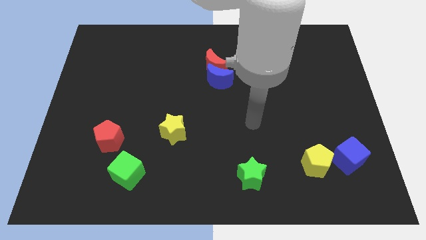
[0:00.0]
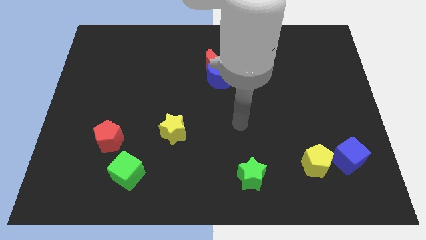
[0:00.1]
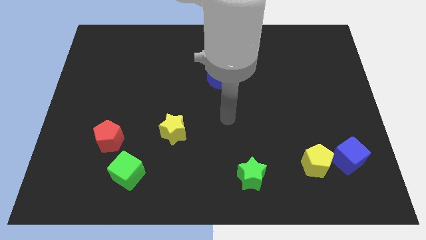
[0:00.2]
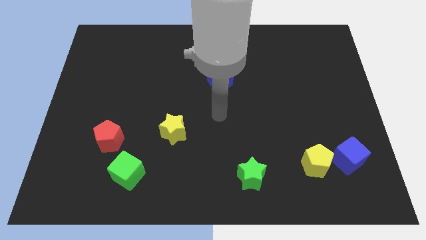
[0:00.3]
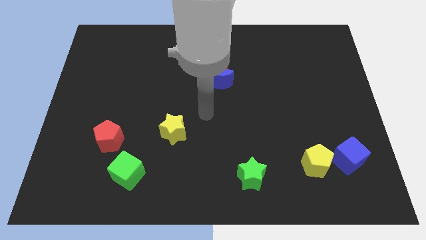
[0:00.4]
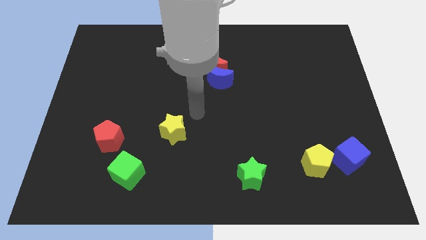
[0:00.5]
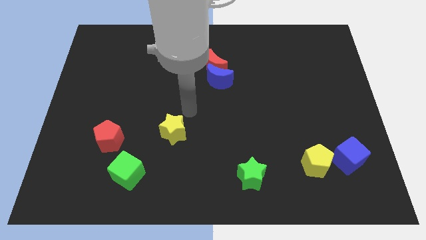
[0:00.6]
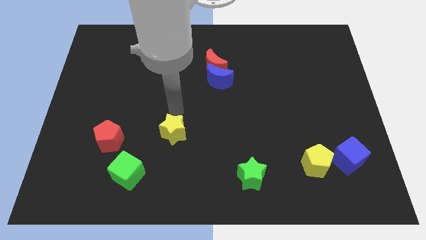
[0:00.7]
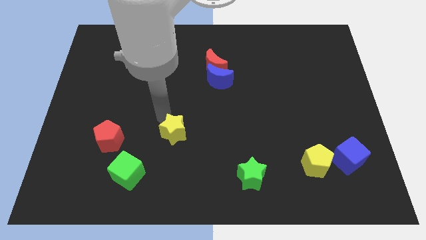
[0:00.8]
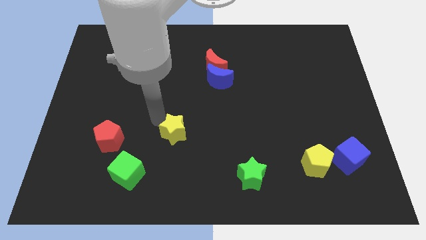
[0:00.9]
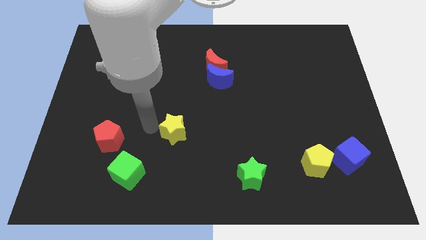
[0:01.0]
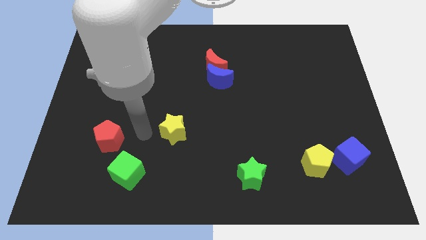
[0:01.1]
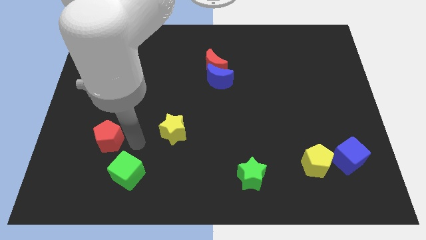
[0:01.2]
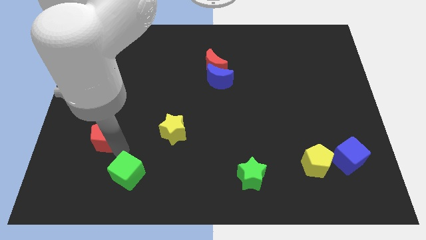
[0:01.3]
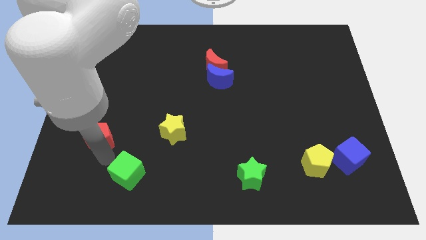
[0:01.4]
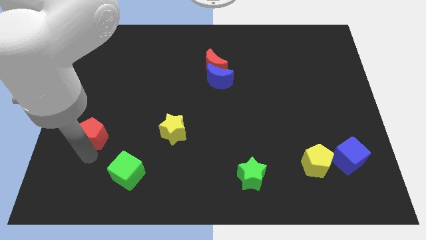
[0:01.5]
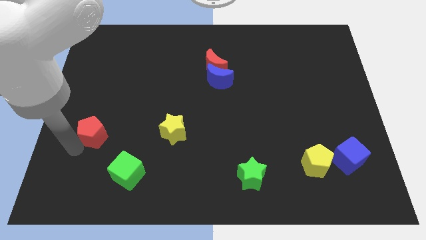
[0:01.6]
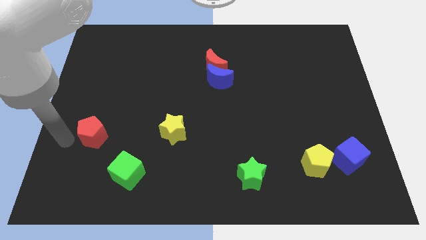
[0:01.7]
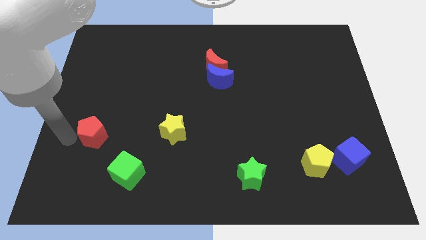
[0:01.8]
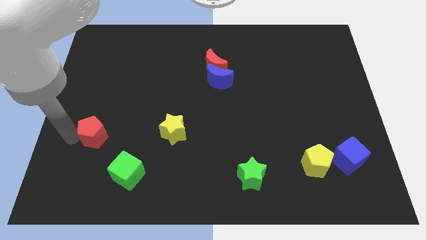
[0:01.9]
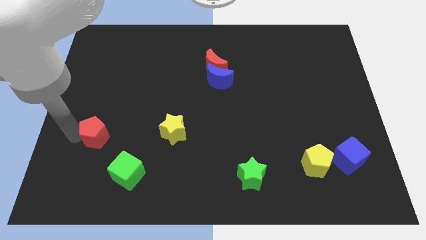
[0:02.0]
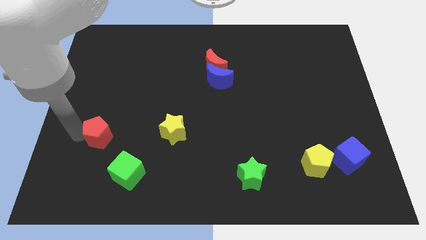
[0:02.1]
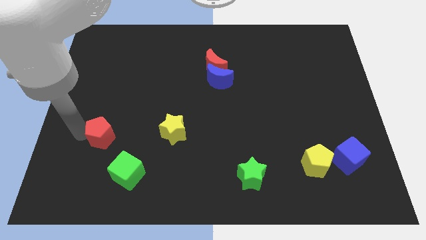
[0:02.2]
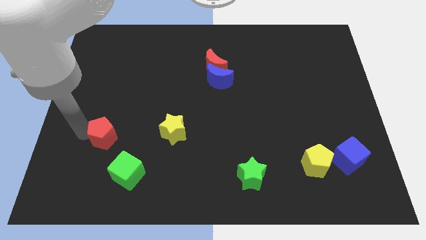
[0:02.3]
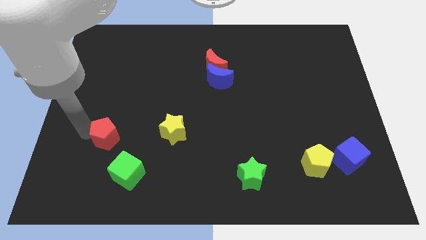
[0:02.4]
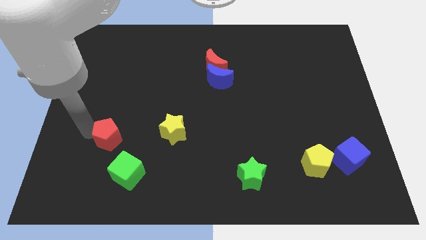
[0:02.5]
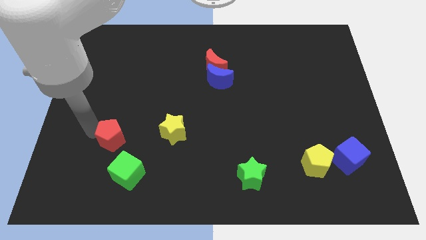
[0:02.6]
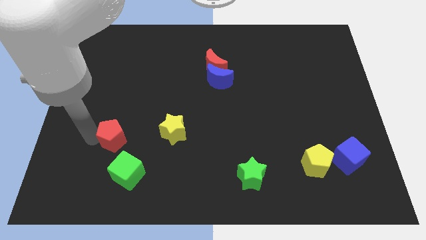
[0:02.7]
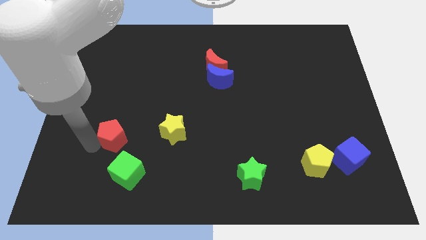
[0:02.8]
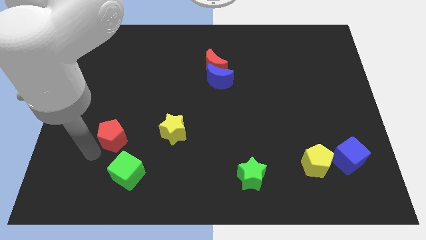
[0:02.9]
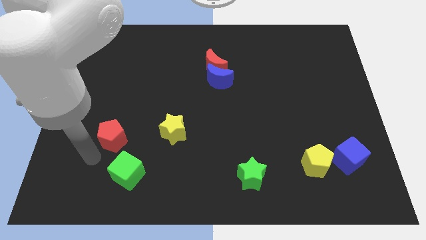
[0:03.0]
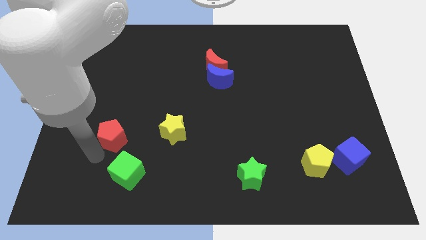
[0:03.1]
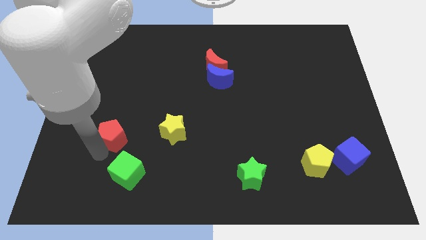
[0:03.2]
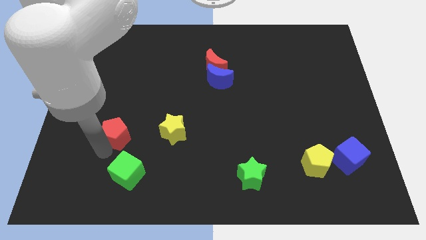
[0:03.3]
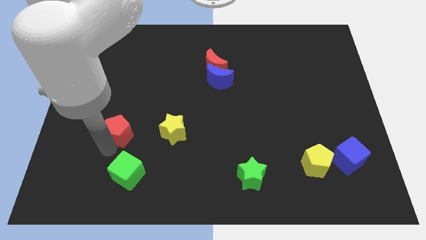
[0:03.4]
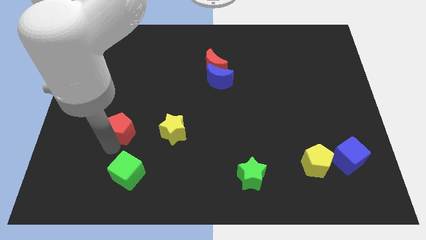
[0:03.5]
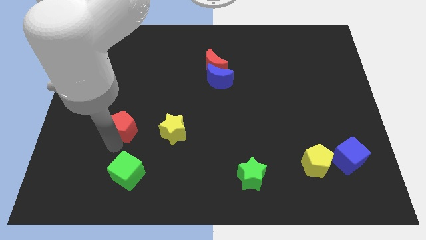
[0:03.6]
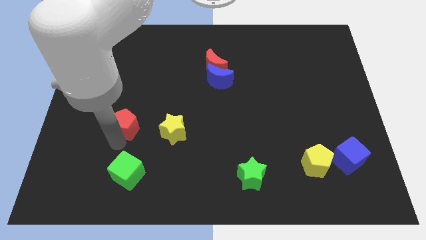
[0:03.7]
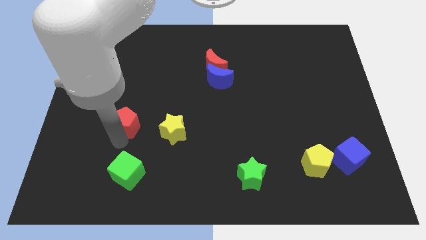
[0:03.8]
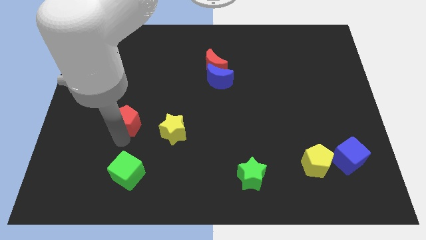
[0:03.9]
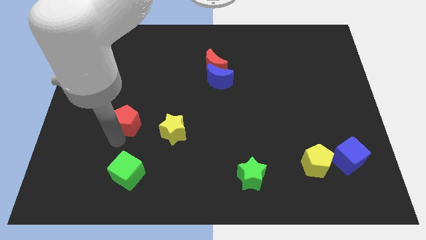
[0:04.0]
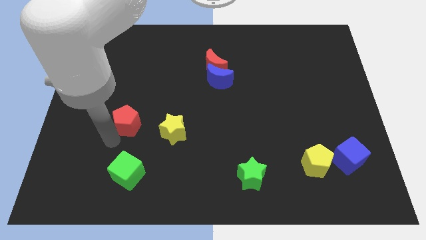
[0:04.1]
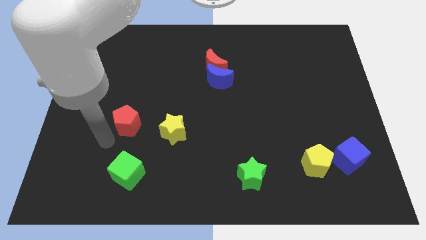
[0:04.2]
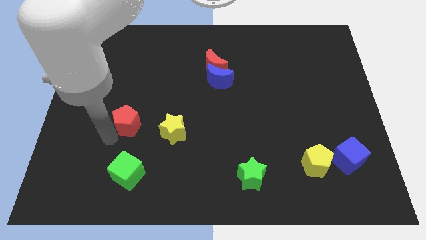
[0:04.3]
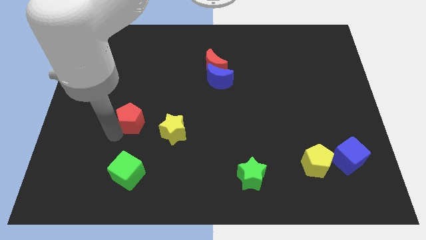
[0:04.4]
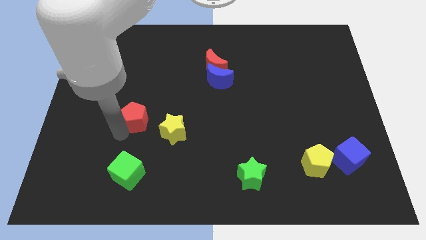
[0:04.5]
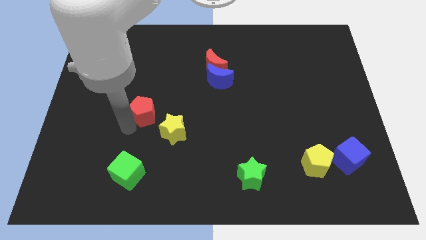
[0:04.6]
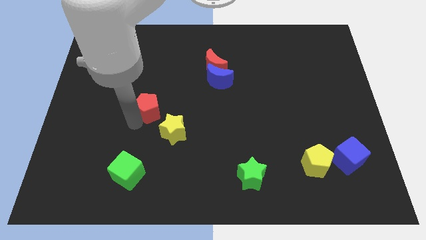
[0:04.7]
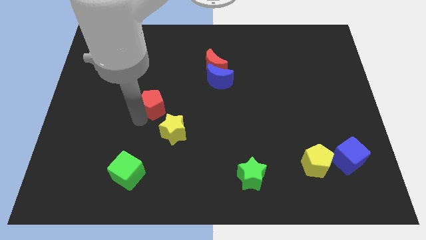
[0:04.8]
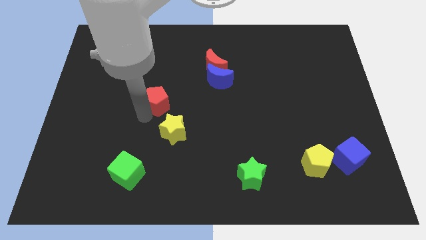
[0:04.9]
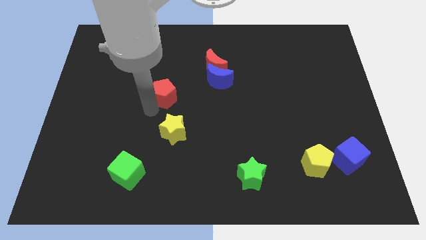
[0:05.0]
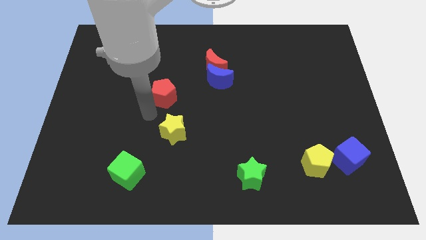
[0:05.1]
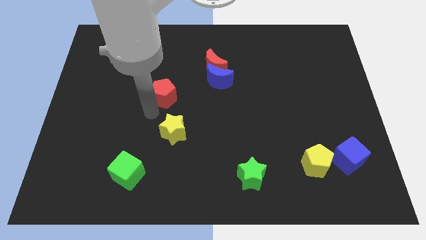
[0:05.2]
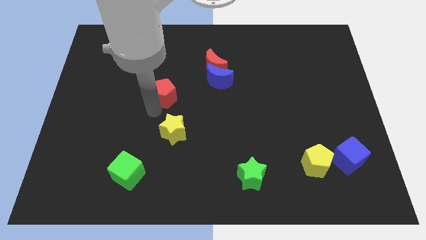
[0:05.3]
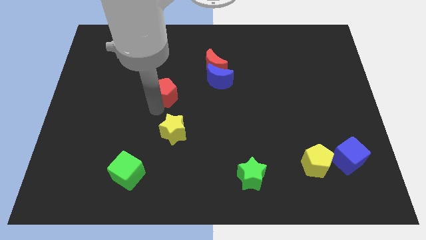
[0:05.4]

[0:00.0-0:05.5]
move the red pentagon left of the blue moon

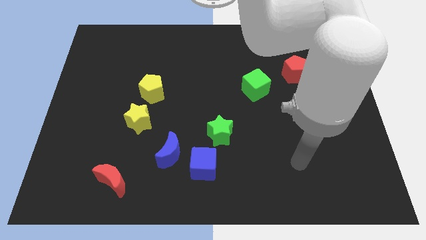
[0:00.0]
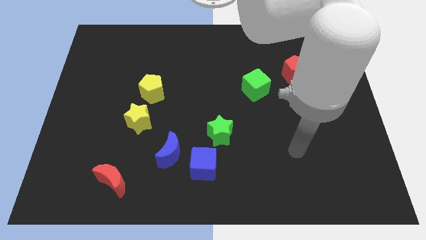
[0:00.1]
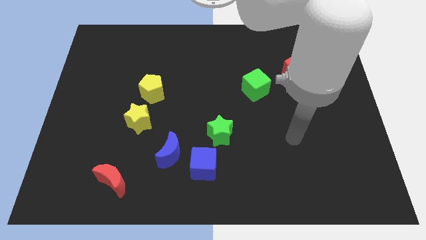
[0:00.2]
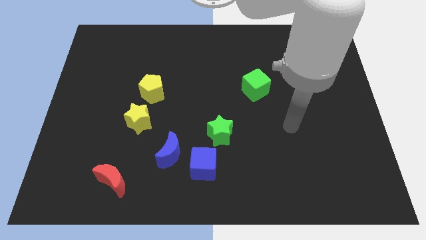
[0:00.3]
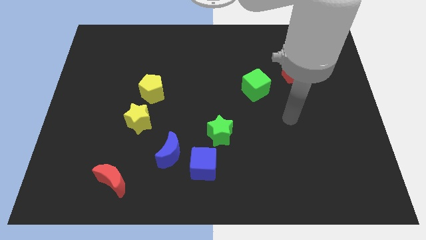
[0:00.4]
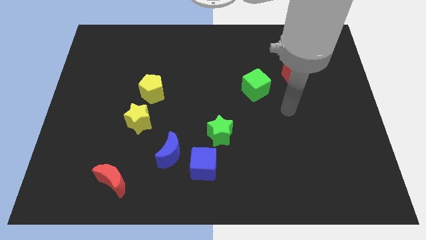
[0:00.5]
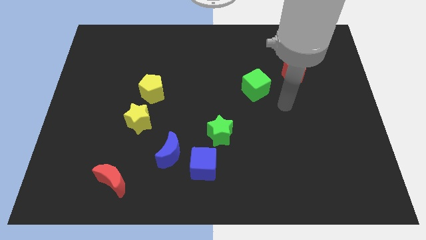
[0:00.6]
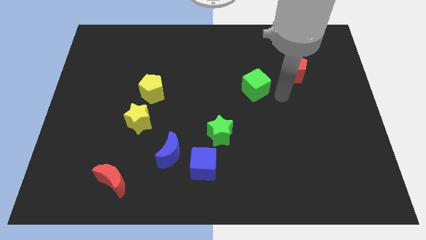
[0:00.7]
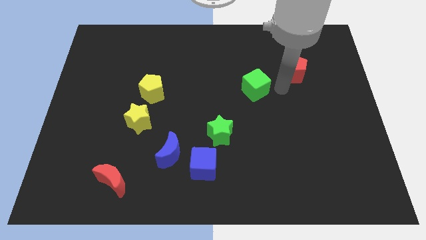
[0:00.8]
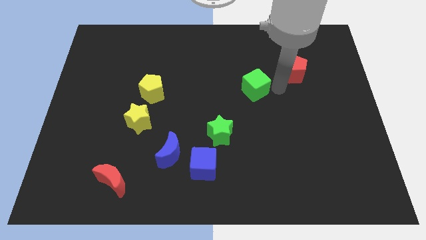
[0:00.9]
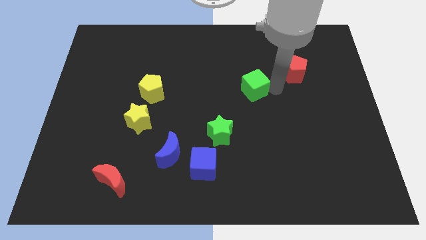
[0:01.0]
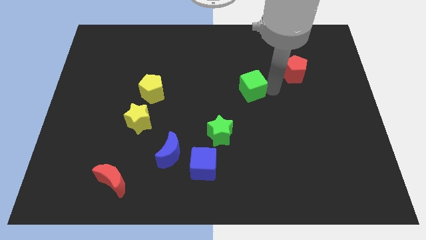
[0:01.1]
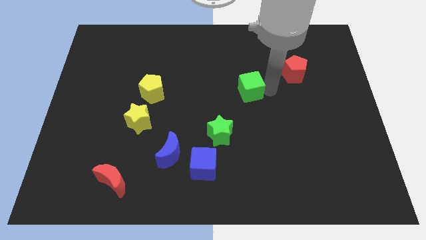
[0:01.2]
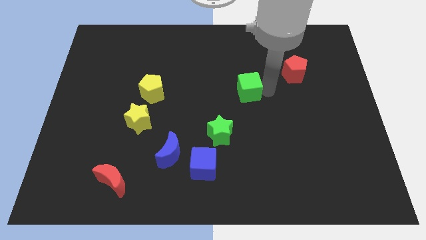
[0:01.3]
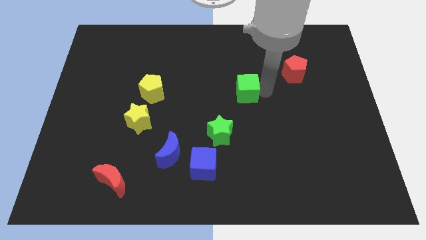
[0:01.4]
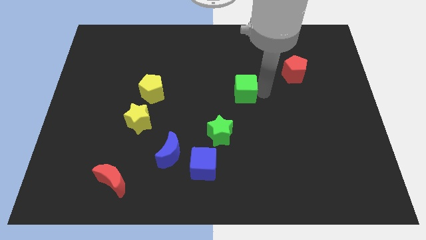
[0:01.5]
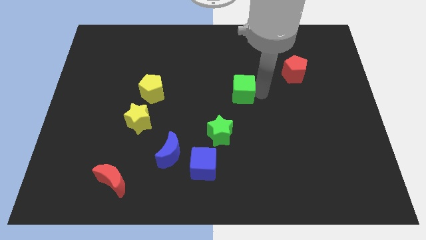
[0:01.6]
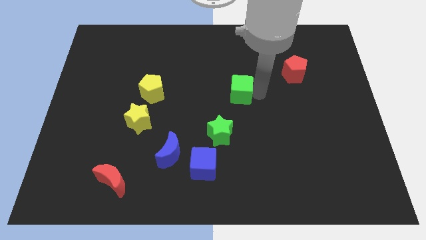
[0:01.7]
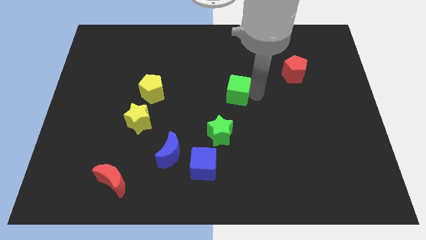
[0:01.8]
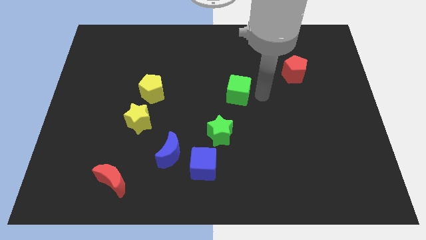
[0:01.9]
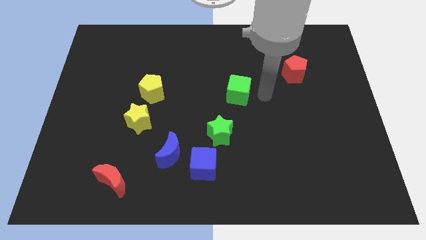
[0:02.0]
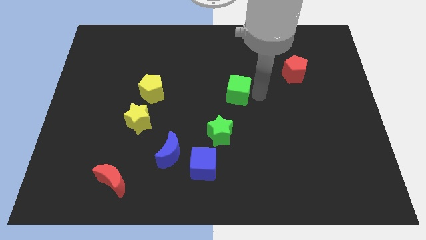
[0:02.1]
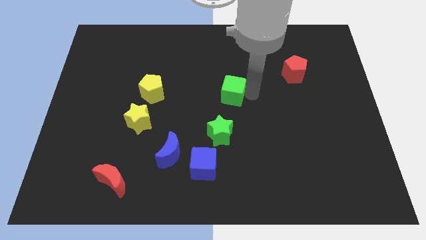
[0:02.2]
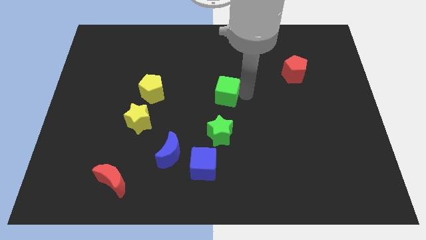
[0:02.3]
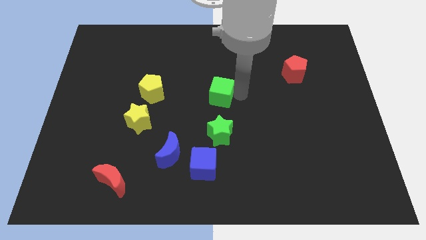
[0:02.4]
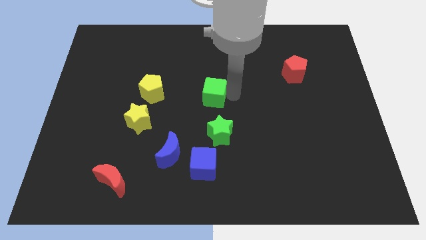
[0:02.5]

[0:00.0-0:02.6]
slide the green cube to the right side of the yellow pentagon
